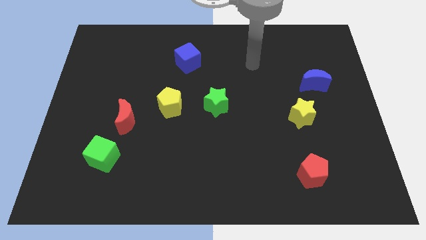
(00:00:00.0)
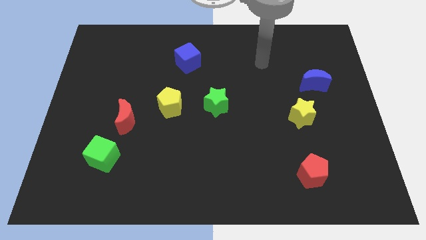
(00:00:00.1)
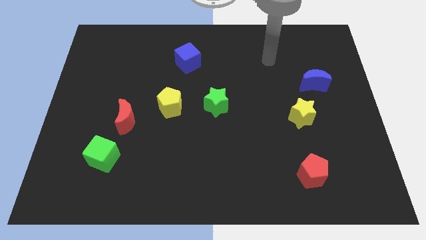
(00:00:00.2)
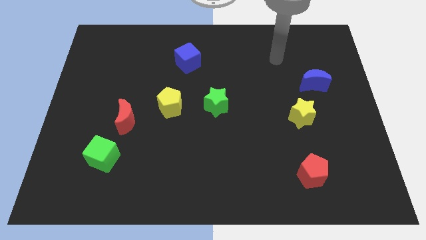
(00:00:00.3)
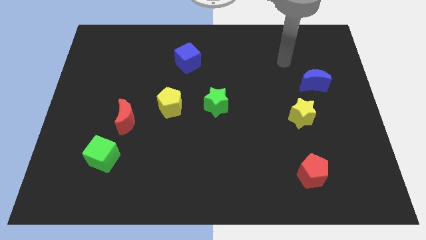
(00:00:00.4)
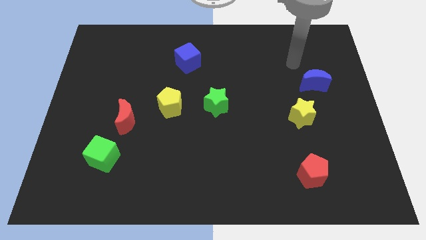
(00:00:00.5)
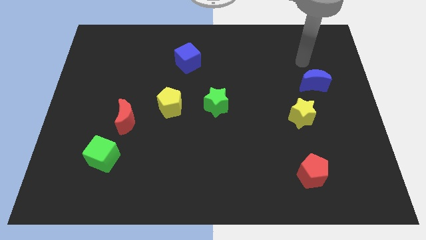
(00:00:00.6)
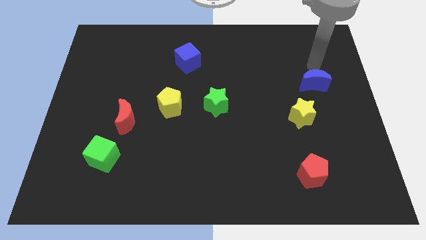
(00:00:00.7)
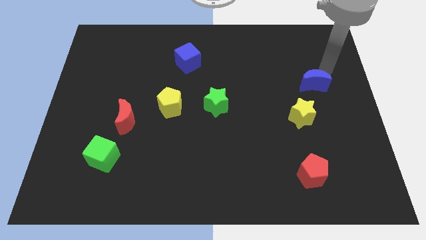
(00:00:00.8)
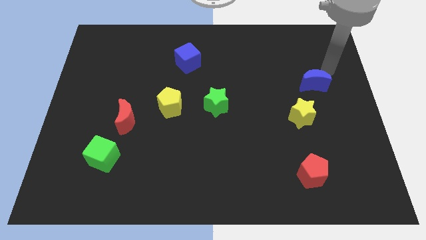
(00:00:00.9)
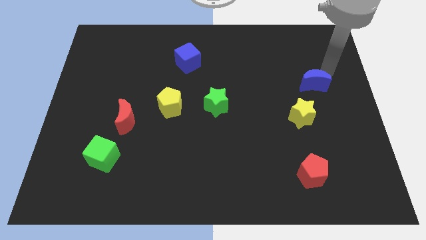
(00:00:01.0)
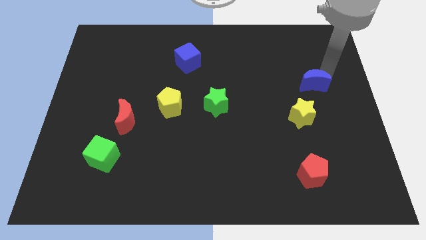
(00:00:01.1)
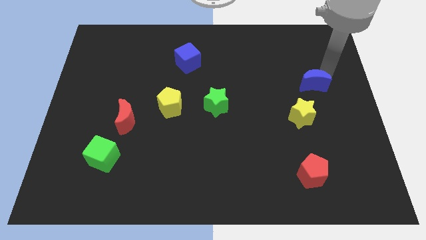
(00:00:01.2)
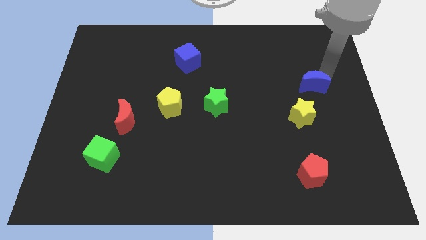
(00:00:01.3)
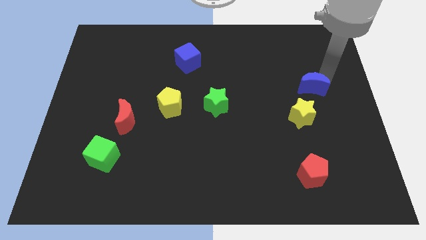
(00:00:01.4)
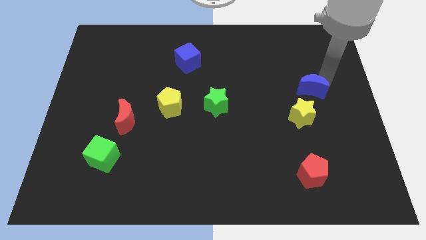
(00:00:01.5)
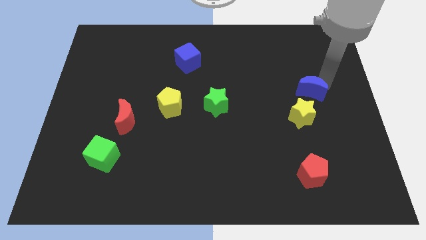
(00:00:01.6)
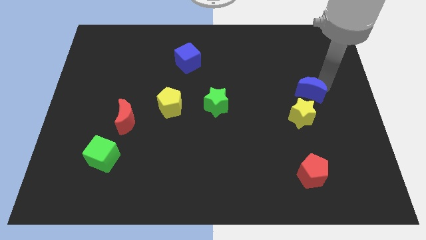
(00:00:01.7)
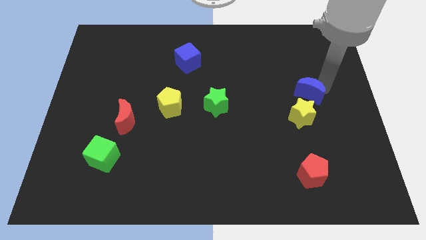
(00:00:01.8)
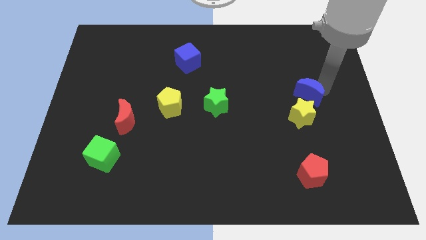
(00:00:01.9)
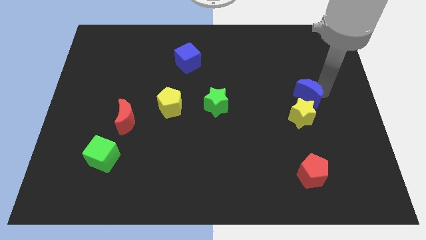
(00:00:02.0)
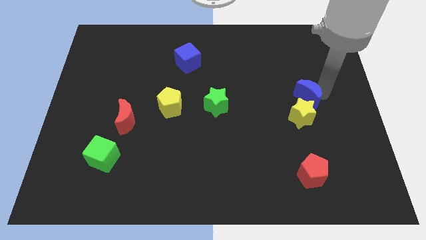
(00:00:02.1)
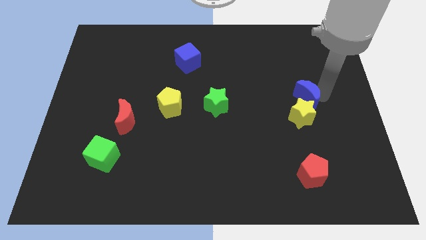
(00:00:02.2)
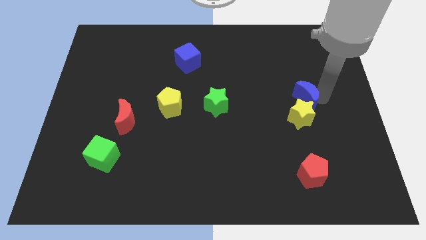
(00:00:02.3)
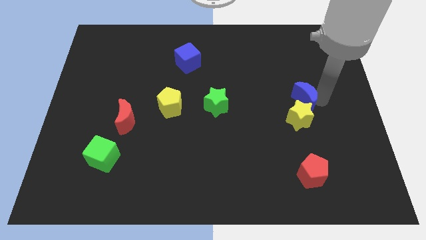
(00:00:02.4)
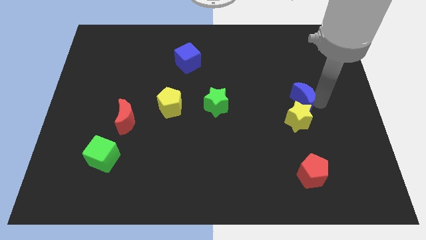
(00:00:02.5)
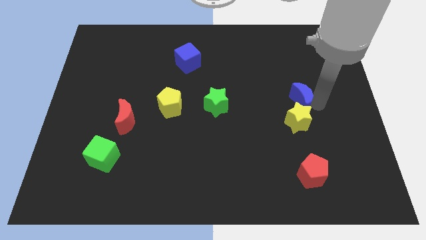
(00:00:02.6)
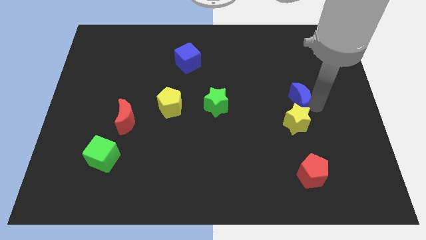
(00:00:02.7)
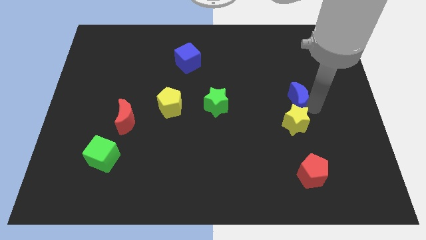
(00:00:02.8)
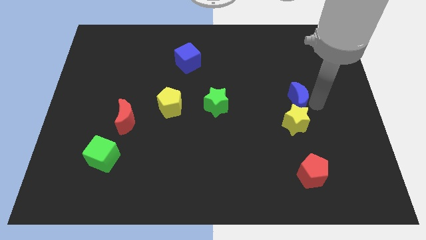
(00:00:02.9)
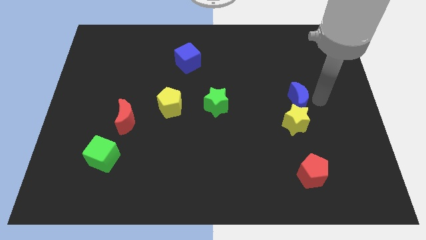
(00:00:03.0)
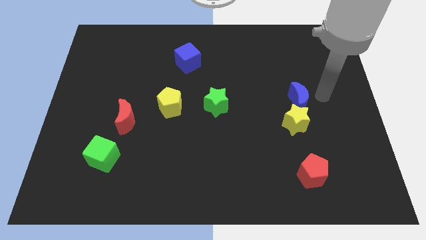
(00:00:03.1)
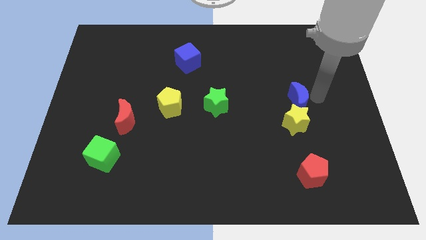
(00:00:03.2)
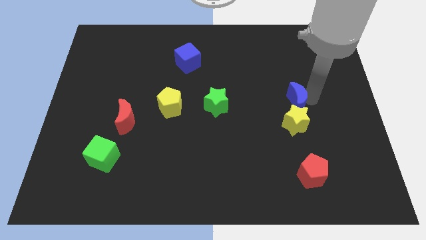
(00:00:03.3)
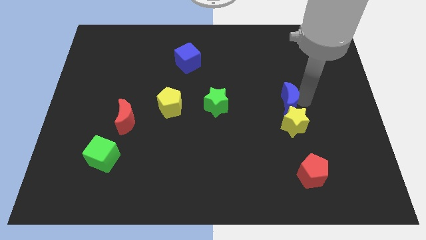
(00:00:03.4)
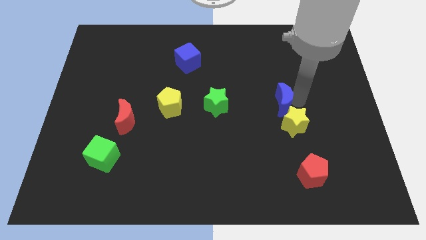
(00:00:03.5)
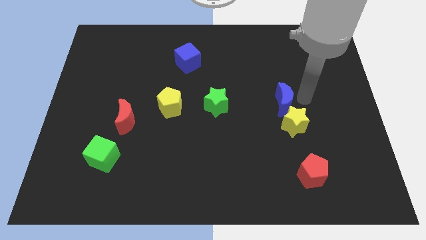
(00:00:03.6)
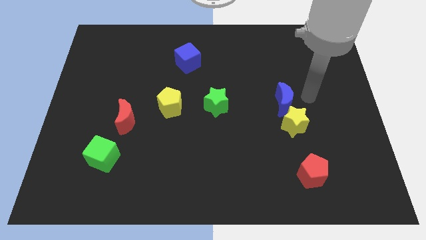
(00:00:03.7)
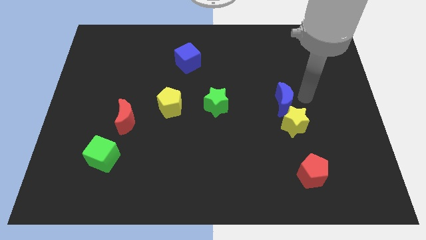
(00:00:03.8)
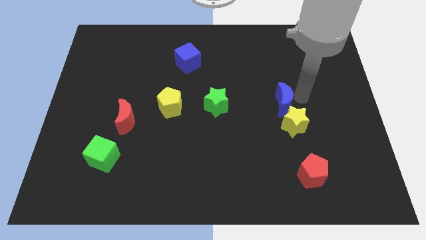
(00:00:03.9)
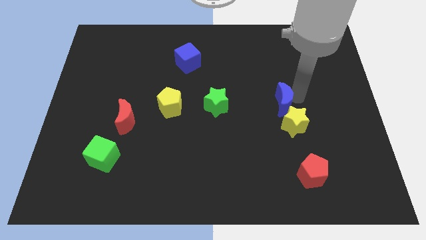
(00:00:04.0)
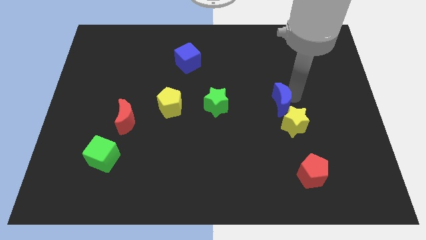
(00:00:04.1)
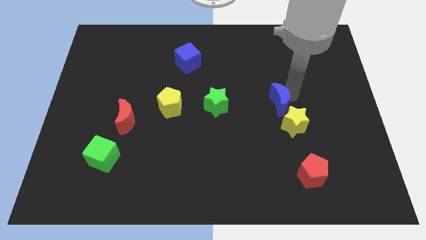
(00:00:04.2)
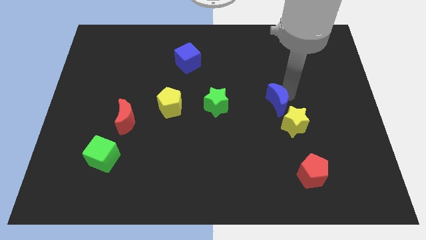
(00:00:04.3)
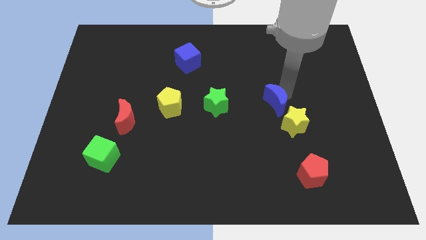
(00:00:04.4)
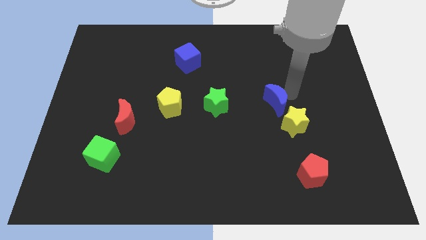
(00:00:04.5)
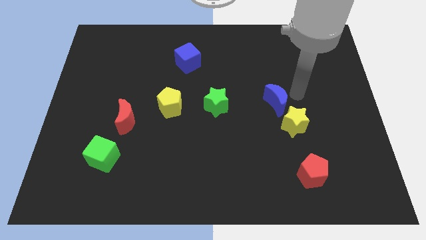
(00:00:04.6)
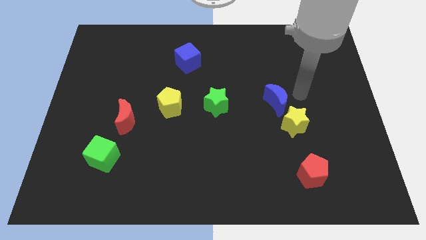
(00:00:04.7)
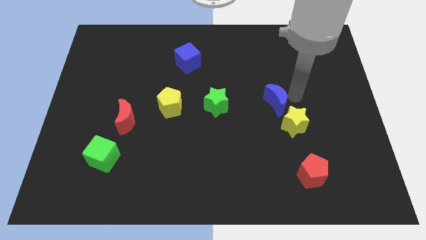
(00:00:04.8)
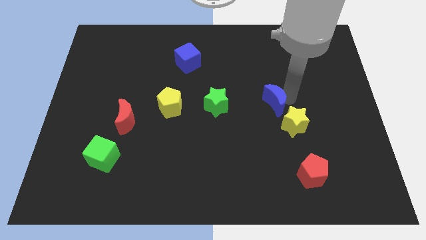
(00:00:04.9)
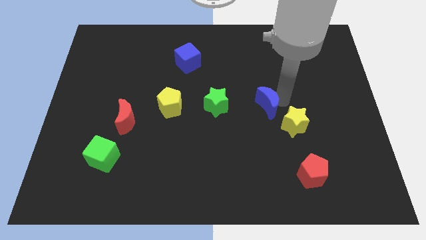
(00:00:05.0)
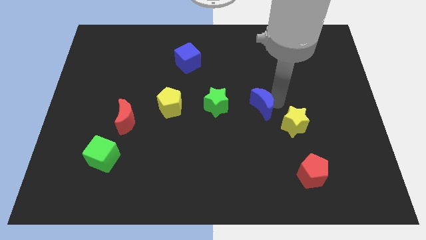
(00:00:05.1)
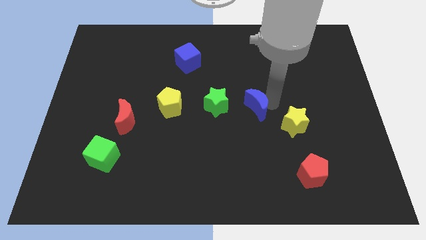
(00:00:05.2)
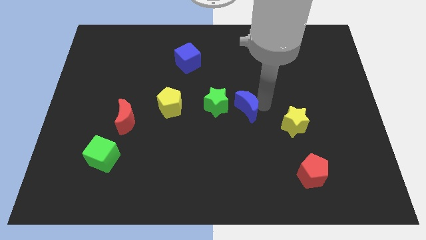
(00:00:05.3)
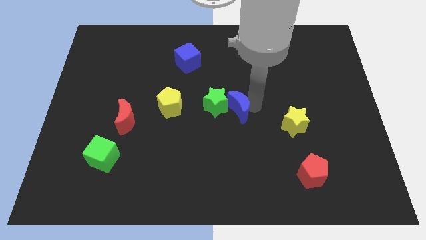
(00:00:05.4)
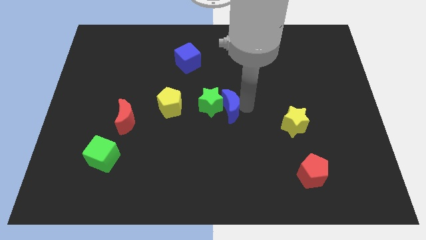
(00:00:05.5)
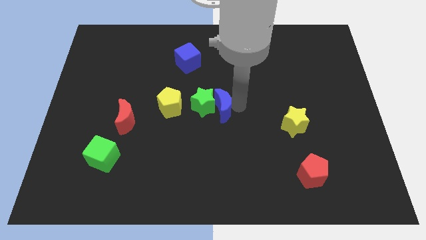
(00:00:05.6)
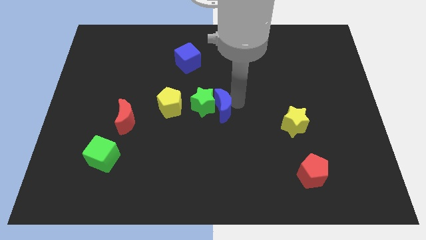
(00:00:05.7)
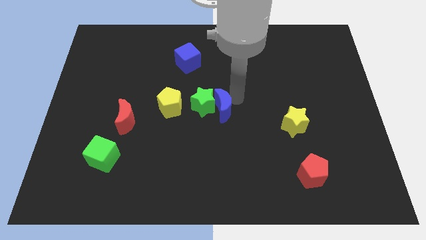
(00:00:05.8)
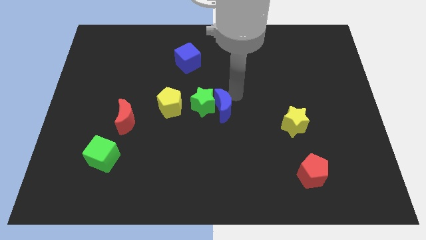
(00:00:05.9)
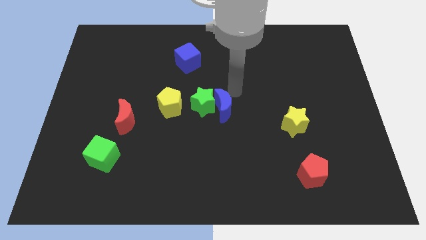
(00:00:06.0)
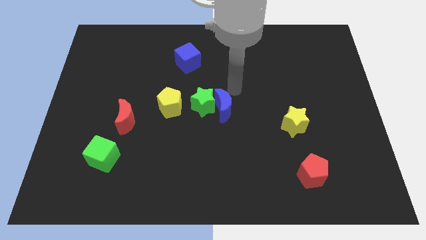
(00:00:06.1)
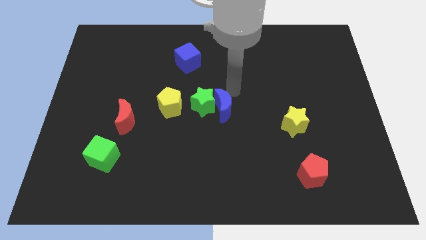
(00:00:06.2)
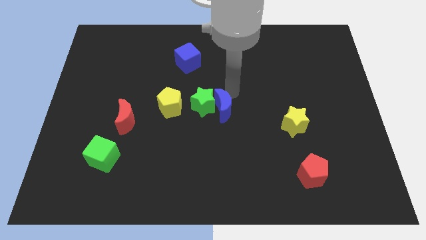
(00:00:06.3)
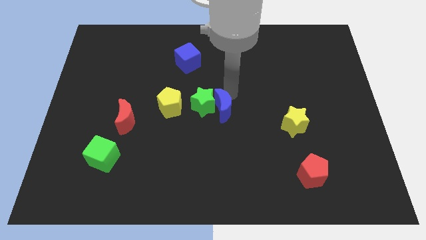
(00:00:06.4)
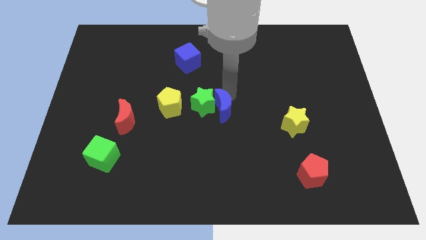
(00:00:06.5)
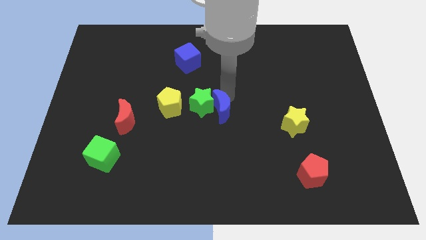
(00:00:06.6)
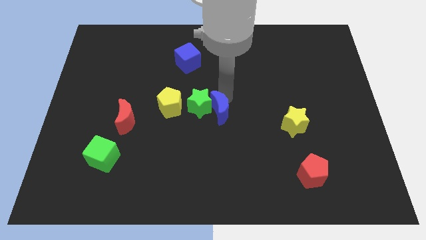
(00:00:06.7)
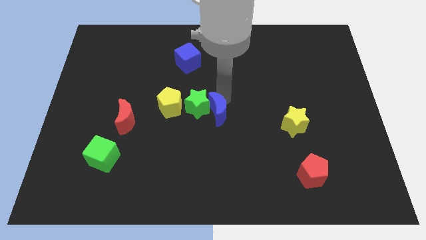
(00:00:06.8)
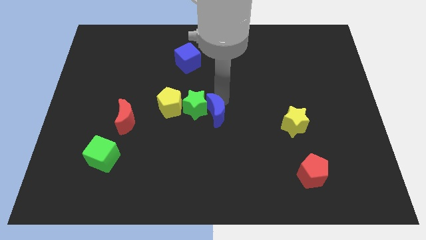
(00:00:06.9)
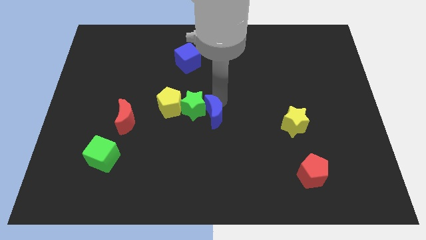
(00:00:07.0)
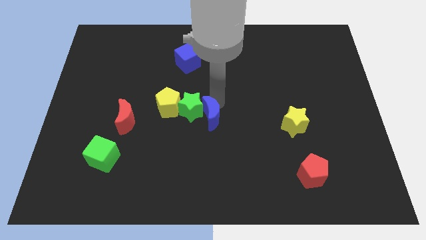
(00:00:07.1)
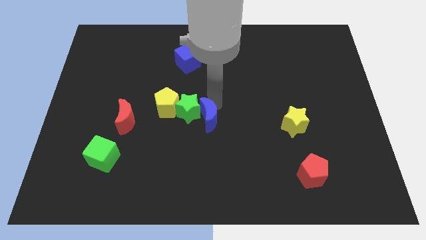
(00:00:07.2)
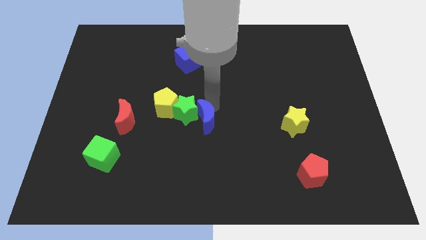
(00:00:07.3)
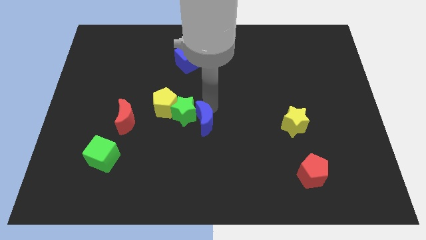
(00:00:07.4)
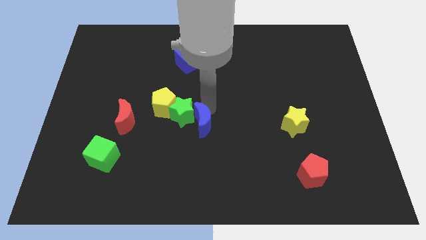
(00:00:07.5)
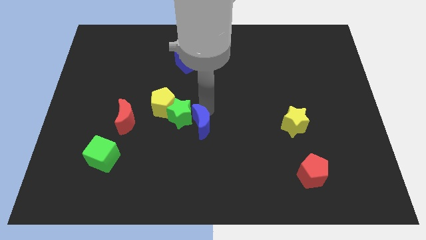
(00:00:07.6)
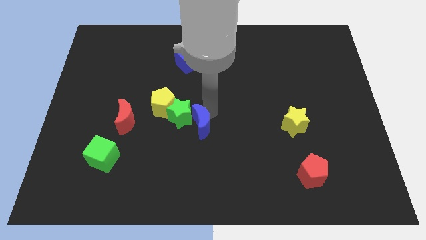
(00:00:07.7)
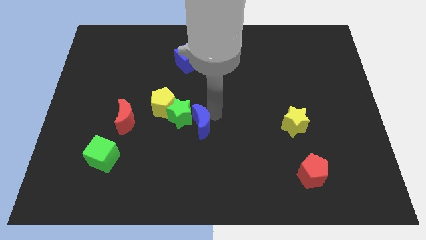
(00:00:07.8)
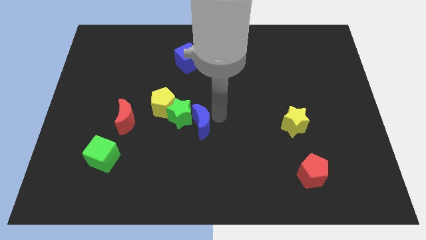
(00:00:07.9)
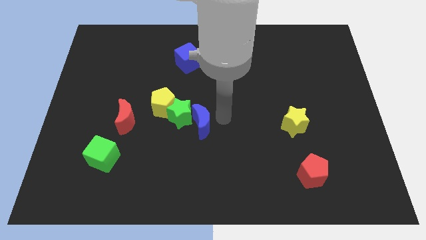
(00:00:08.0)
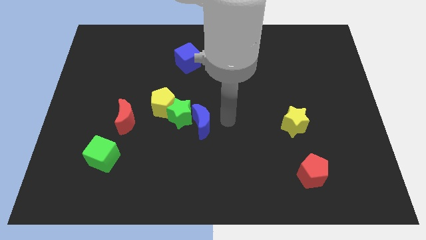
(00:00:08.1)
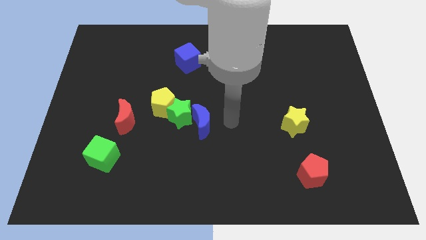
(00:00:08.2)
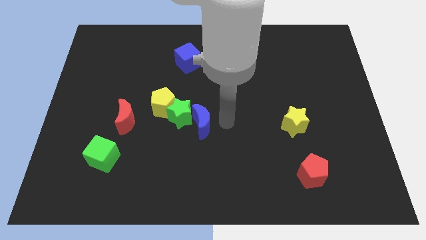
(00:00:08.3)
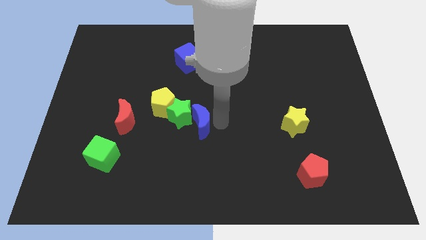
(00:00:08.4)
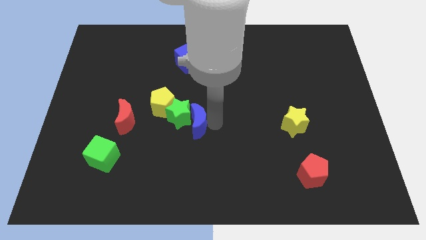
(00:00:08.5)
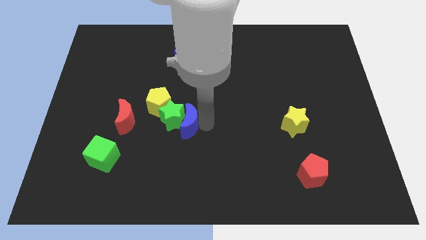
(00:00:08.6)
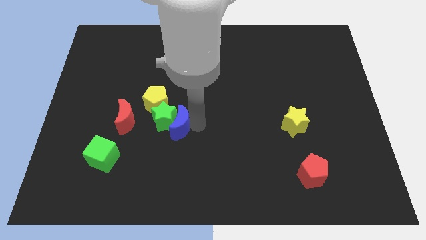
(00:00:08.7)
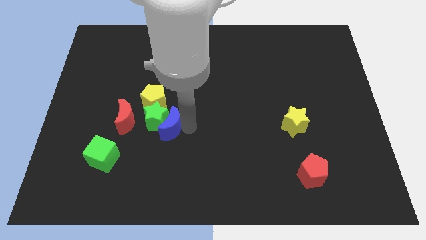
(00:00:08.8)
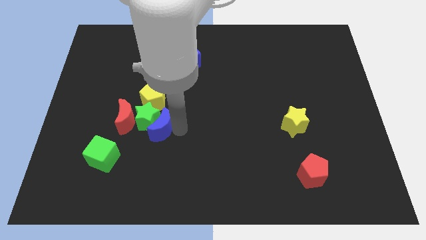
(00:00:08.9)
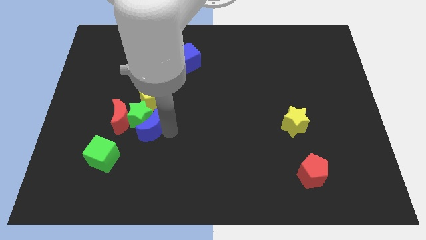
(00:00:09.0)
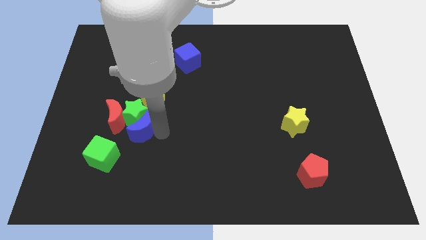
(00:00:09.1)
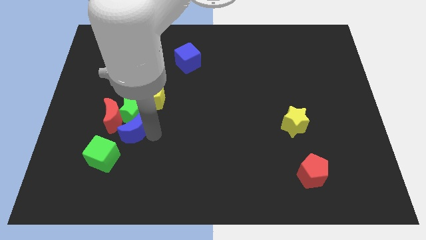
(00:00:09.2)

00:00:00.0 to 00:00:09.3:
slide the blue moon to the bottom left of the yellow pentagon
